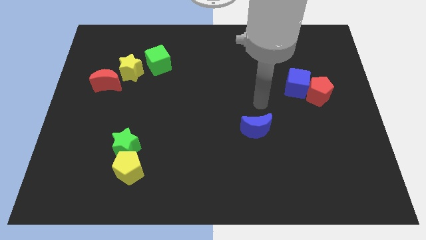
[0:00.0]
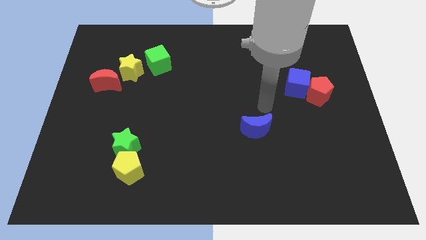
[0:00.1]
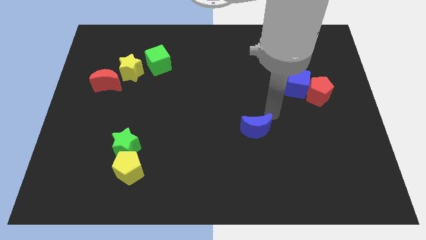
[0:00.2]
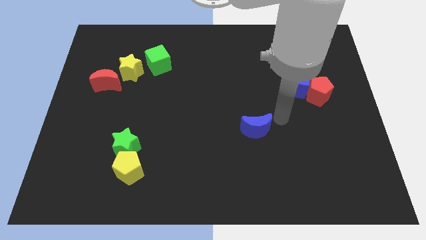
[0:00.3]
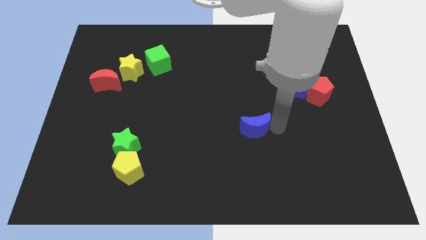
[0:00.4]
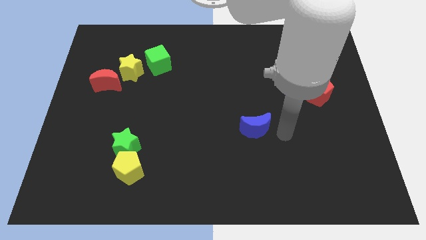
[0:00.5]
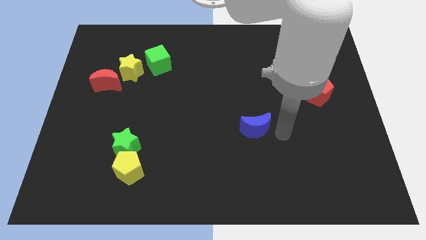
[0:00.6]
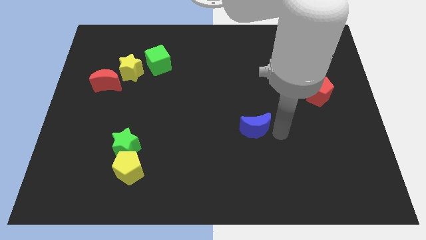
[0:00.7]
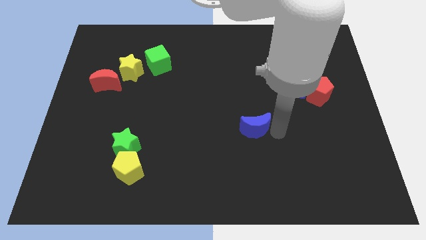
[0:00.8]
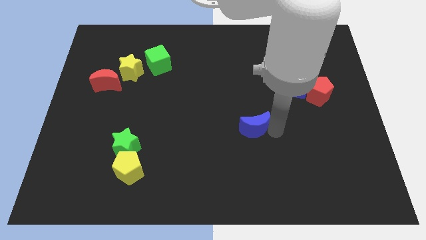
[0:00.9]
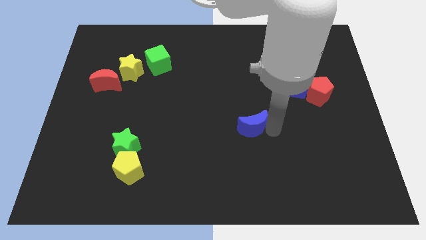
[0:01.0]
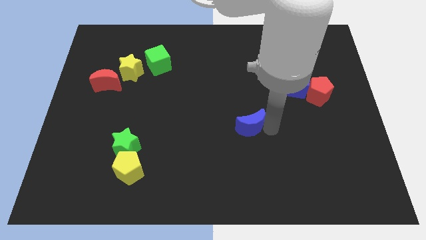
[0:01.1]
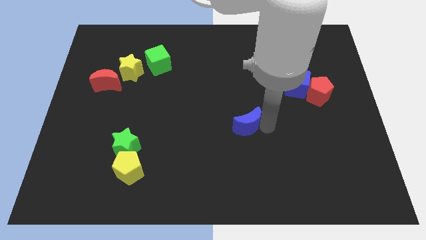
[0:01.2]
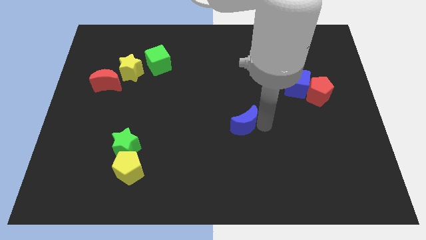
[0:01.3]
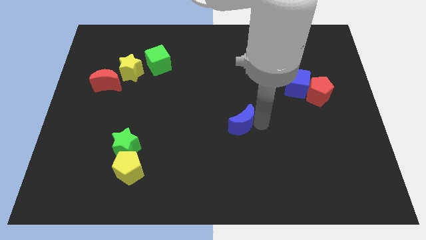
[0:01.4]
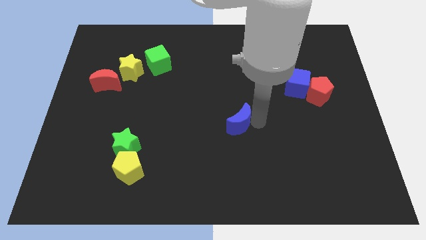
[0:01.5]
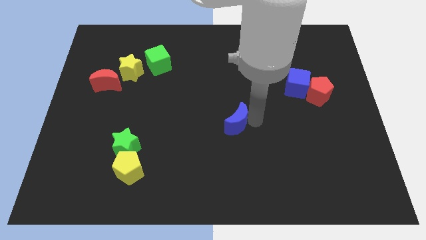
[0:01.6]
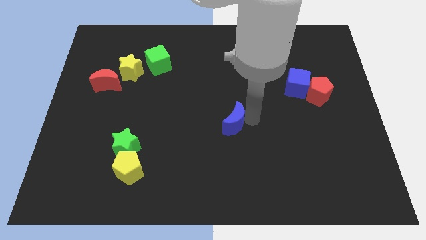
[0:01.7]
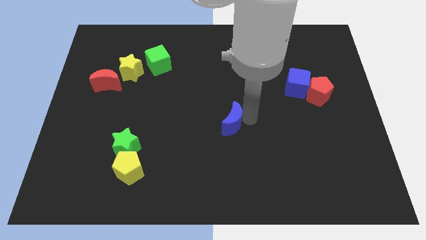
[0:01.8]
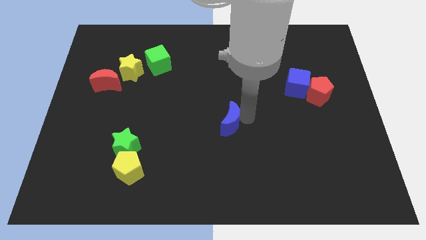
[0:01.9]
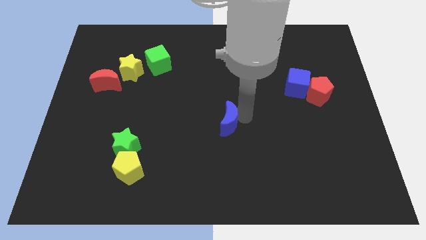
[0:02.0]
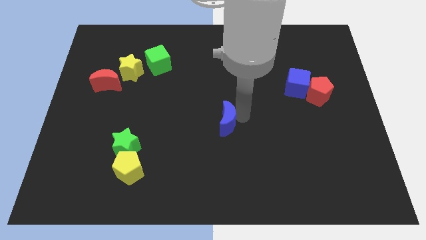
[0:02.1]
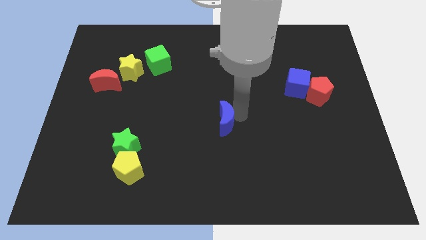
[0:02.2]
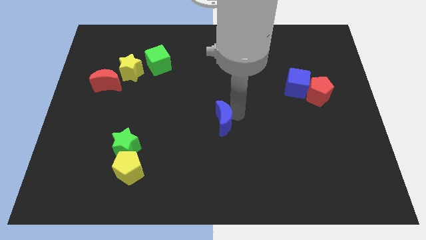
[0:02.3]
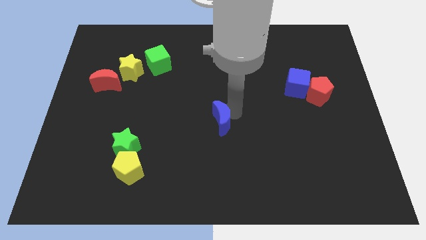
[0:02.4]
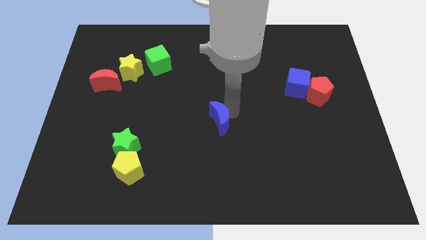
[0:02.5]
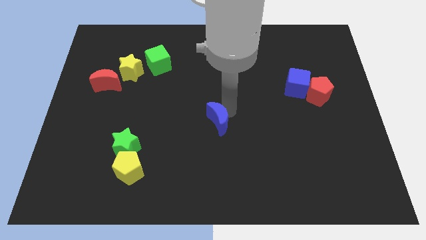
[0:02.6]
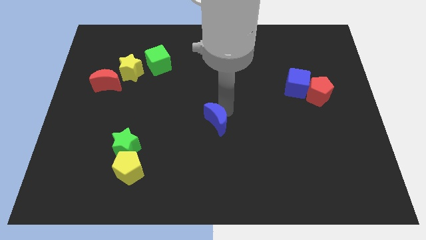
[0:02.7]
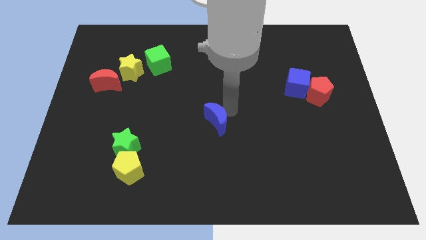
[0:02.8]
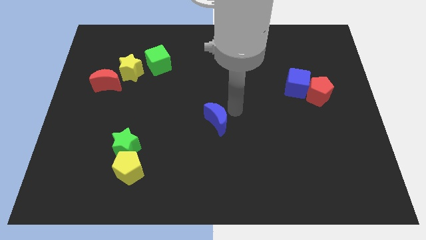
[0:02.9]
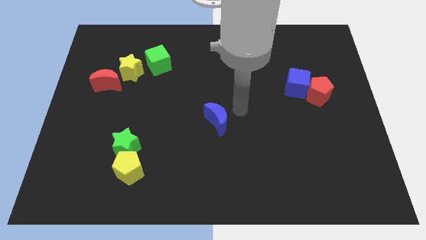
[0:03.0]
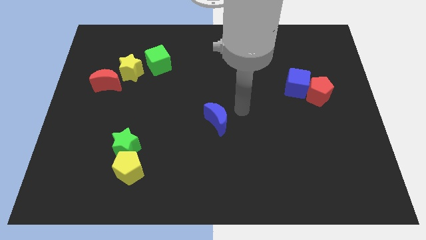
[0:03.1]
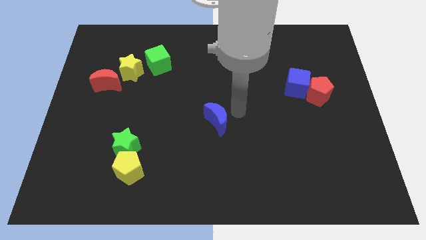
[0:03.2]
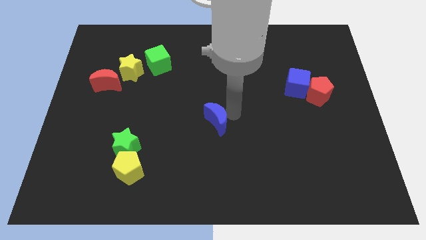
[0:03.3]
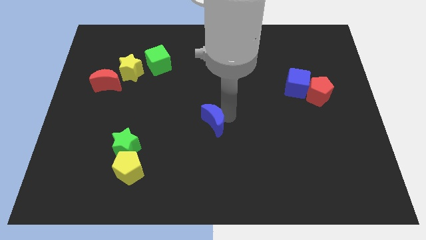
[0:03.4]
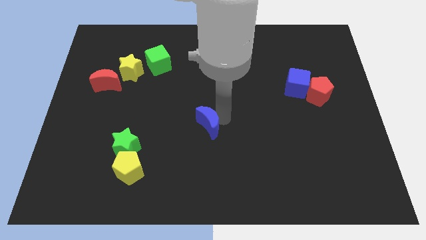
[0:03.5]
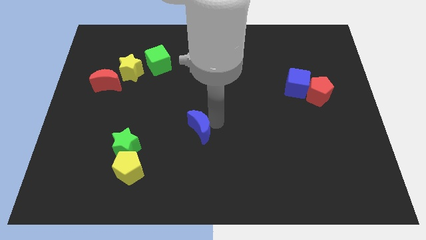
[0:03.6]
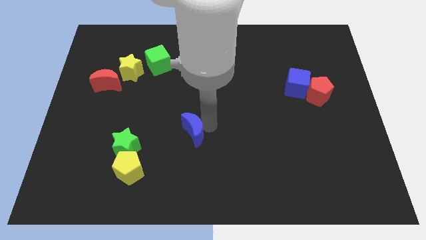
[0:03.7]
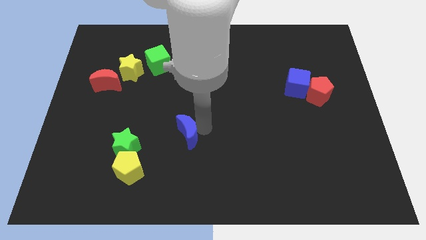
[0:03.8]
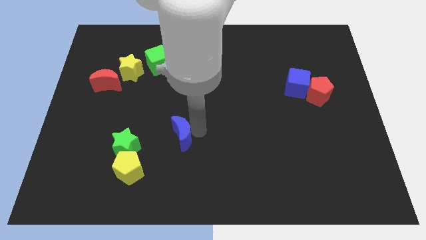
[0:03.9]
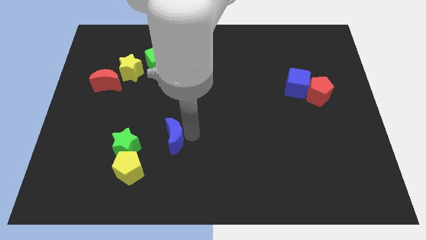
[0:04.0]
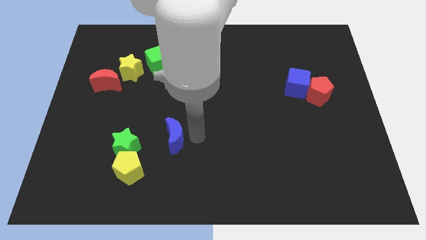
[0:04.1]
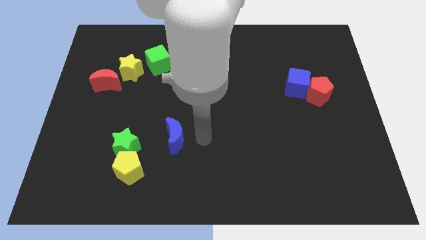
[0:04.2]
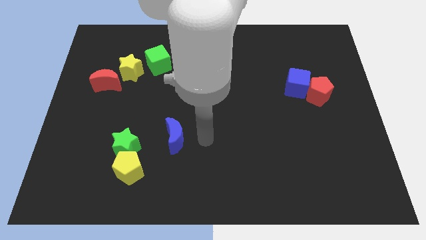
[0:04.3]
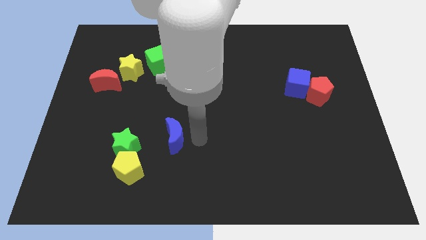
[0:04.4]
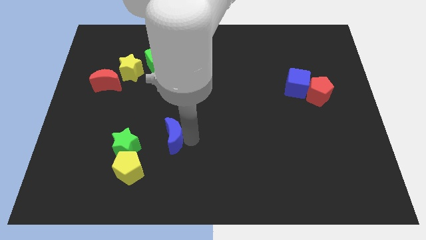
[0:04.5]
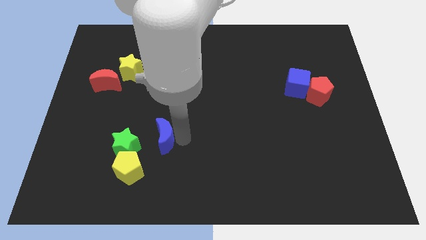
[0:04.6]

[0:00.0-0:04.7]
push the blue moon to the left

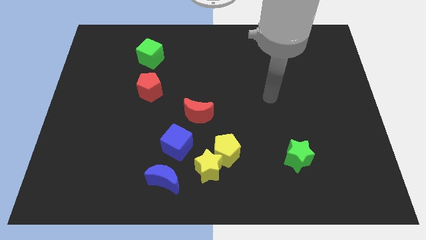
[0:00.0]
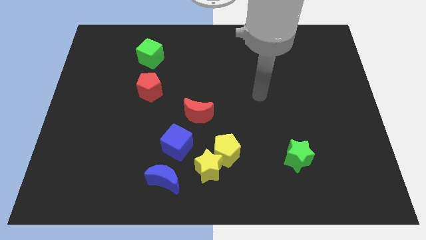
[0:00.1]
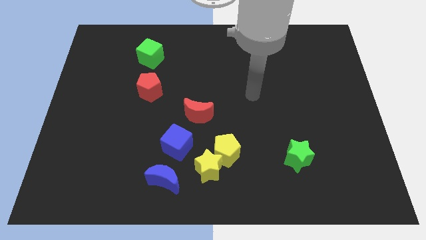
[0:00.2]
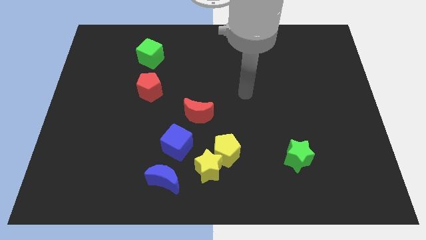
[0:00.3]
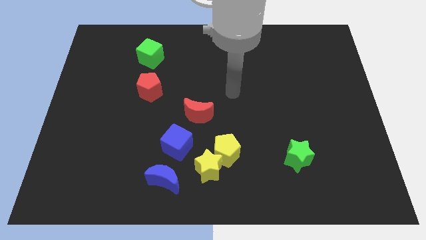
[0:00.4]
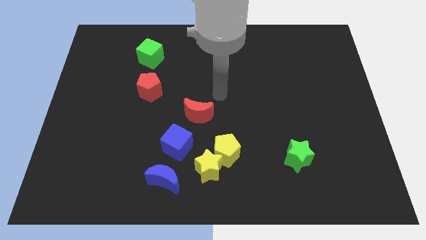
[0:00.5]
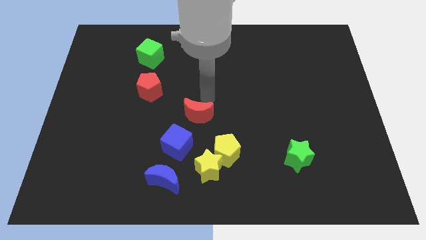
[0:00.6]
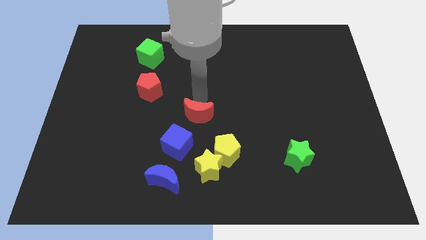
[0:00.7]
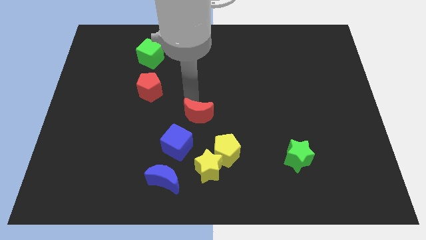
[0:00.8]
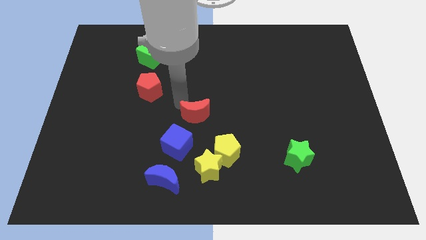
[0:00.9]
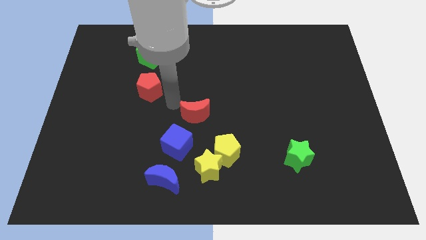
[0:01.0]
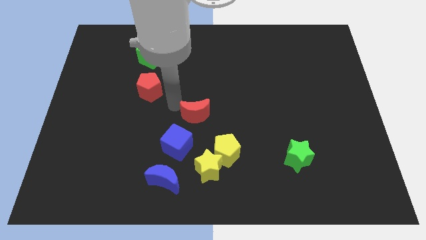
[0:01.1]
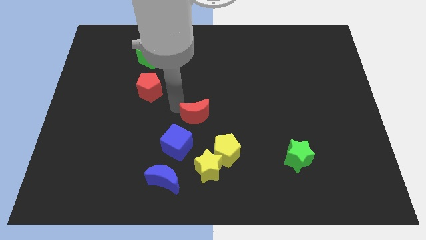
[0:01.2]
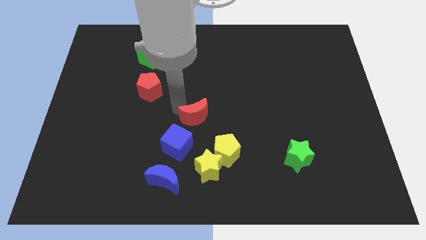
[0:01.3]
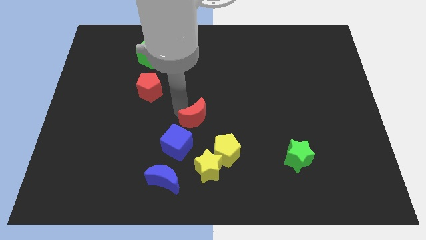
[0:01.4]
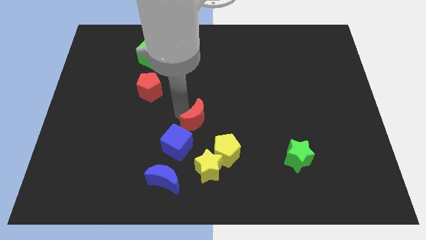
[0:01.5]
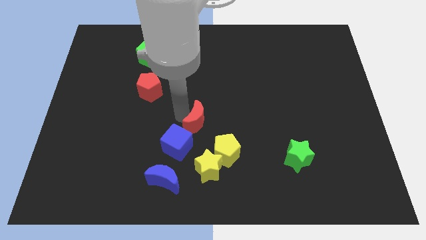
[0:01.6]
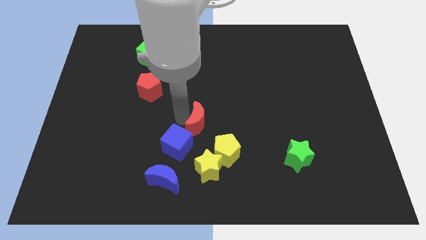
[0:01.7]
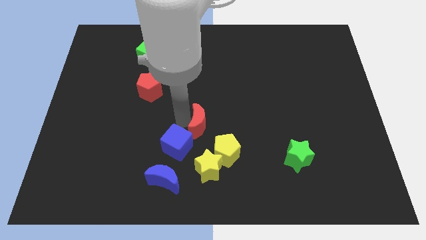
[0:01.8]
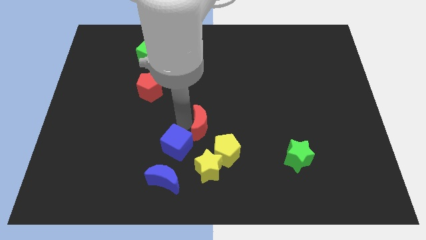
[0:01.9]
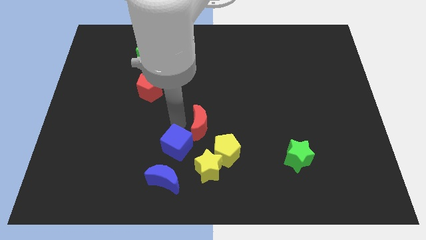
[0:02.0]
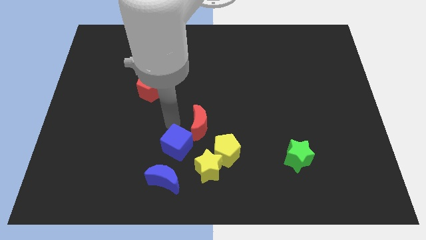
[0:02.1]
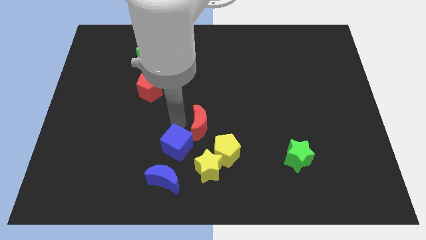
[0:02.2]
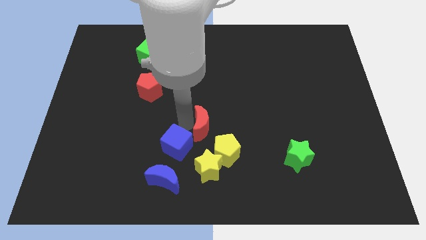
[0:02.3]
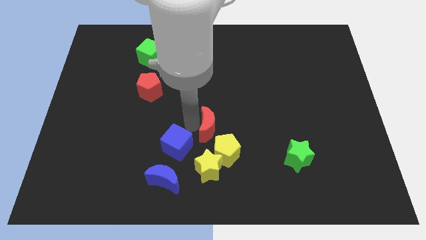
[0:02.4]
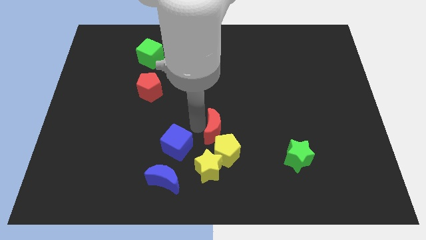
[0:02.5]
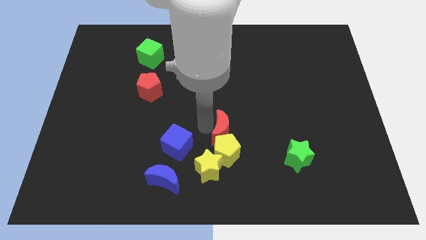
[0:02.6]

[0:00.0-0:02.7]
move the red moon a little bit down and to the right diagonally

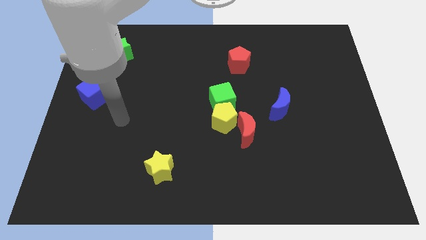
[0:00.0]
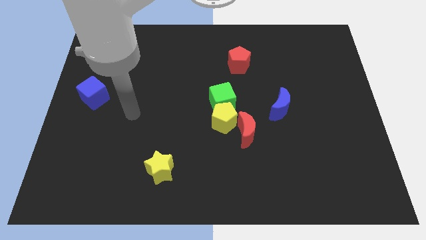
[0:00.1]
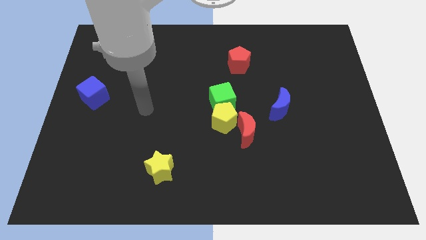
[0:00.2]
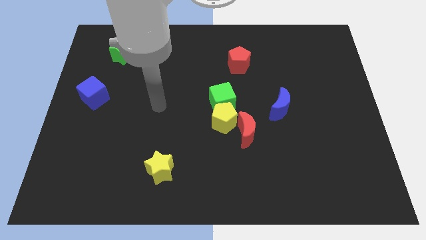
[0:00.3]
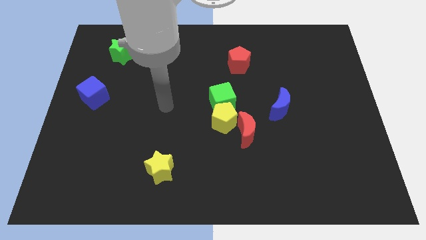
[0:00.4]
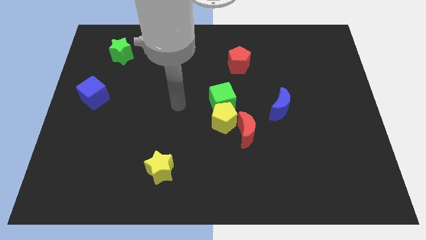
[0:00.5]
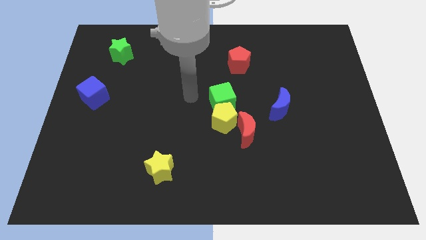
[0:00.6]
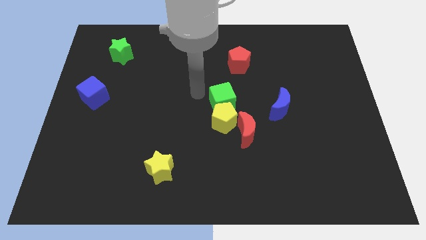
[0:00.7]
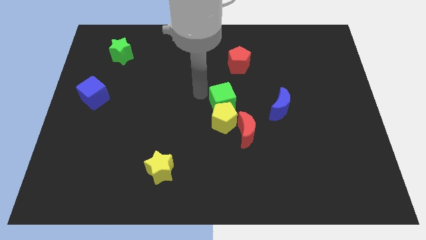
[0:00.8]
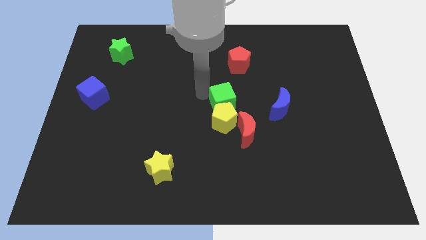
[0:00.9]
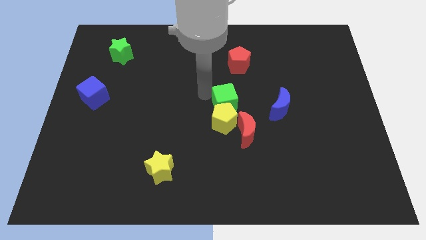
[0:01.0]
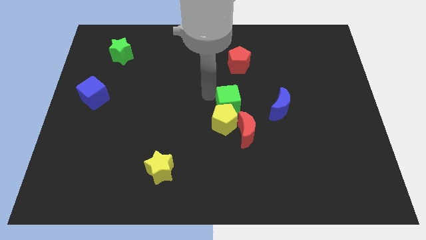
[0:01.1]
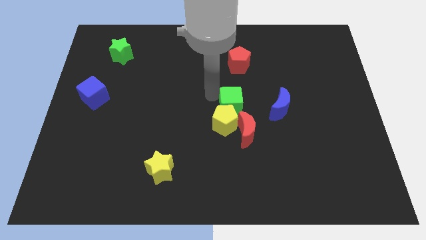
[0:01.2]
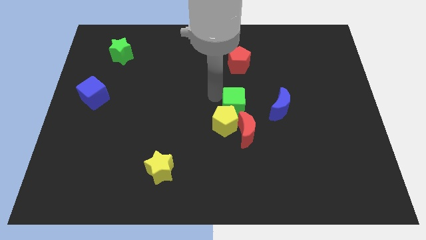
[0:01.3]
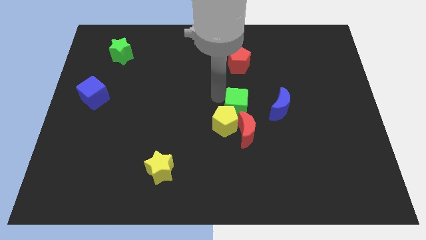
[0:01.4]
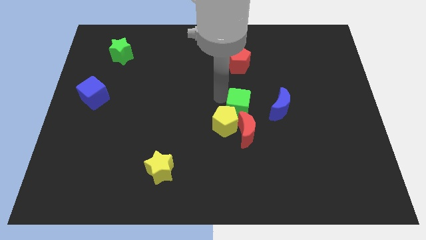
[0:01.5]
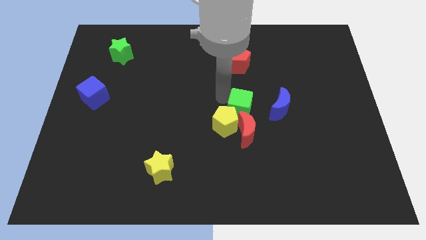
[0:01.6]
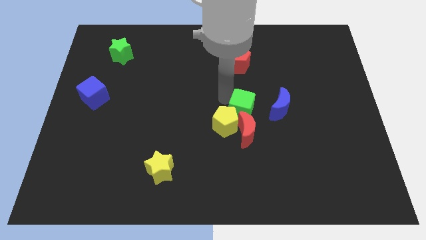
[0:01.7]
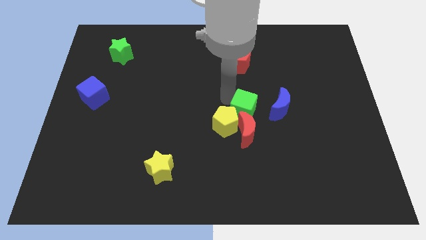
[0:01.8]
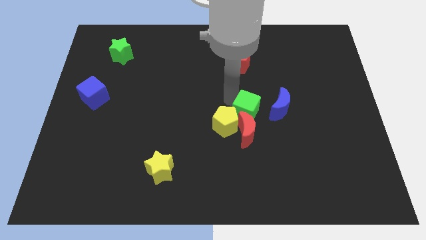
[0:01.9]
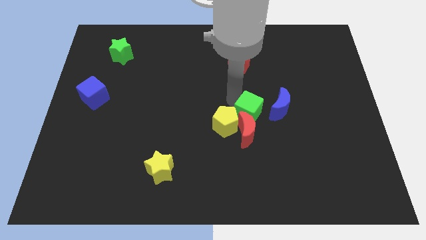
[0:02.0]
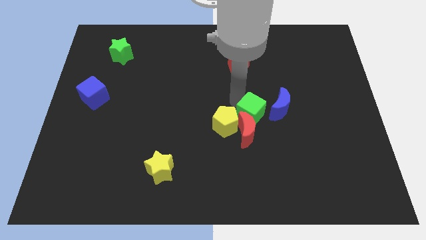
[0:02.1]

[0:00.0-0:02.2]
slightly move the green cube down and then right
